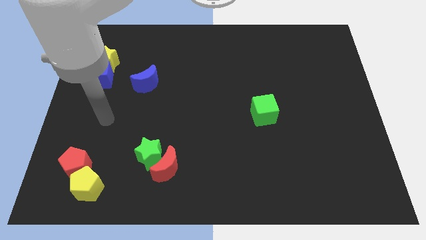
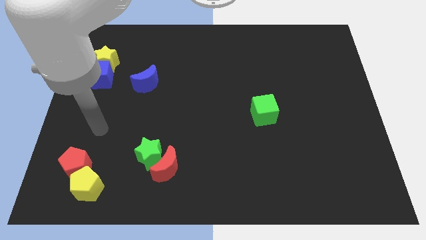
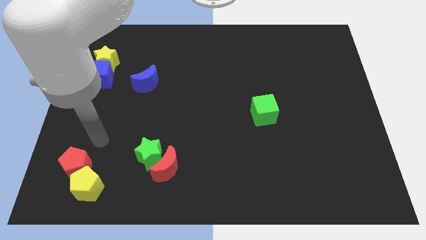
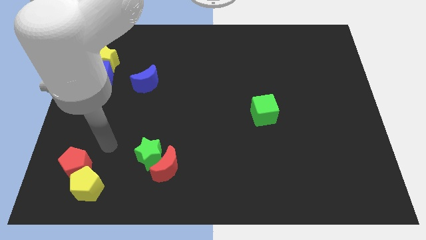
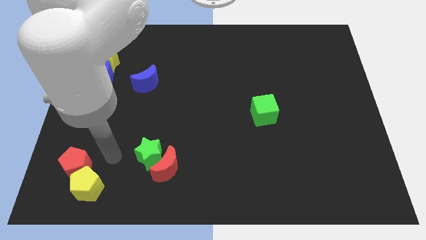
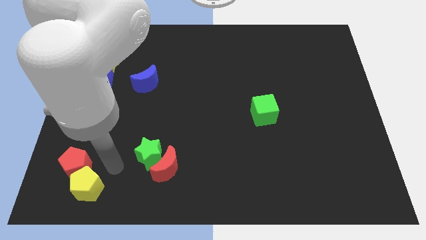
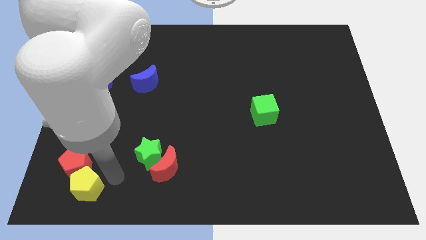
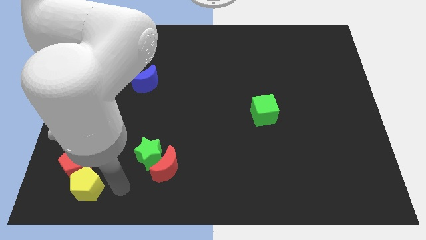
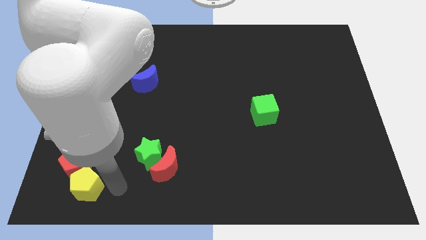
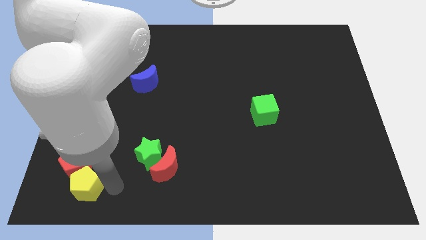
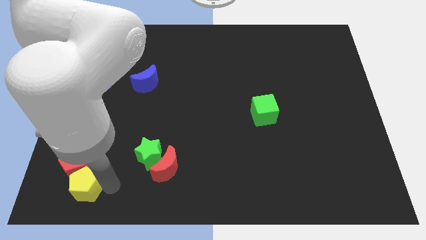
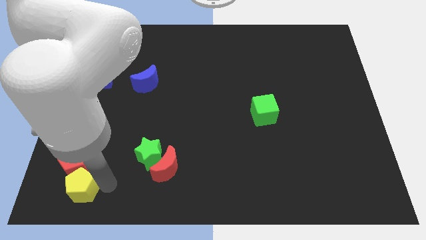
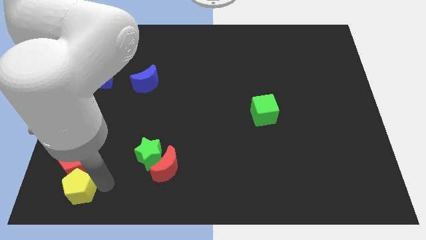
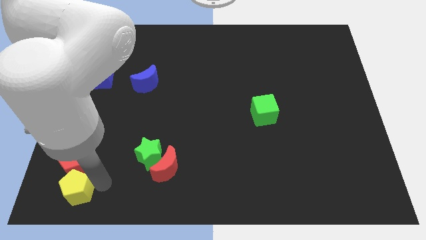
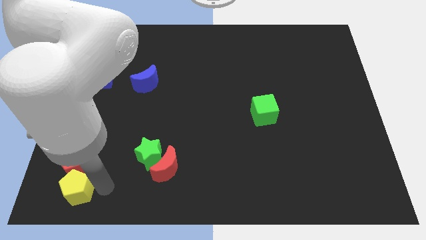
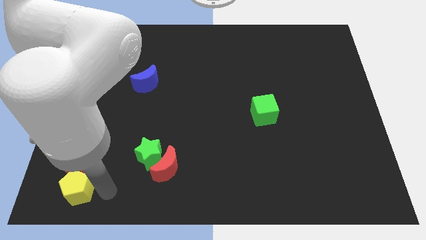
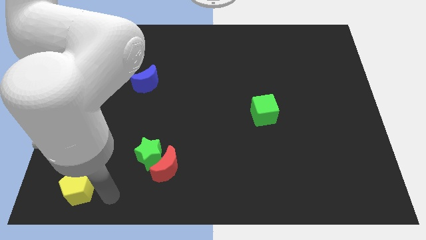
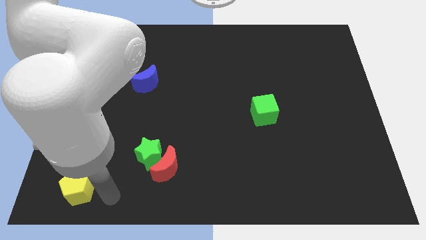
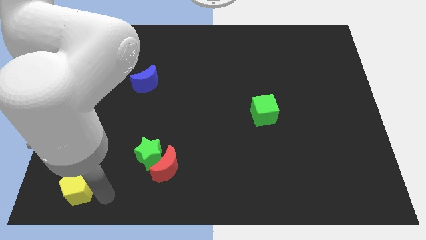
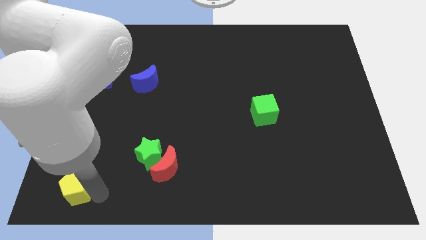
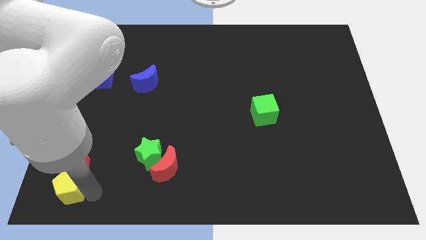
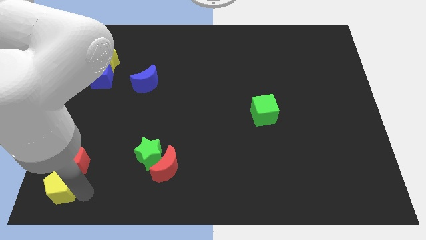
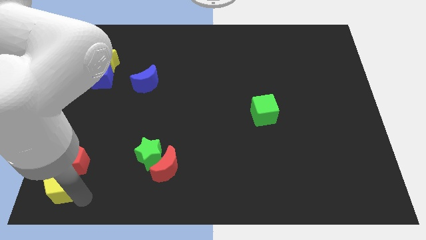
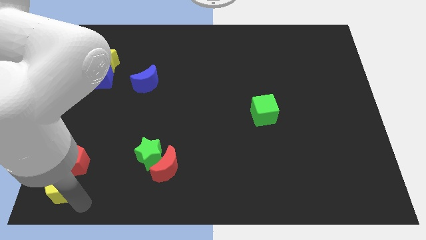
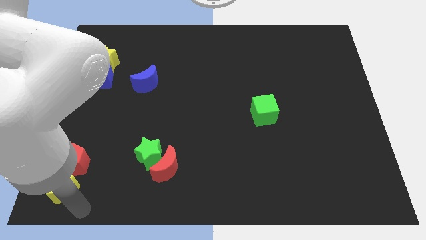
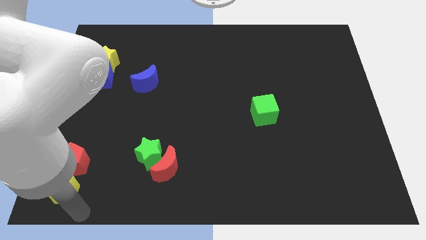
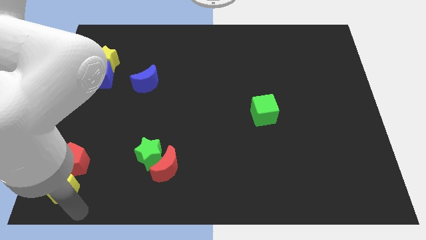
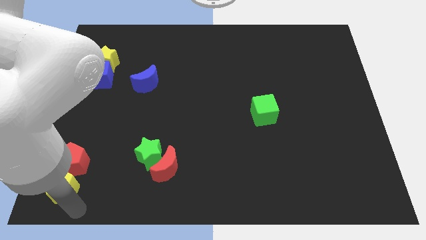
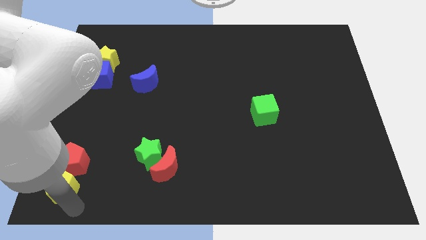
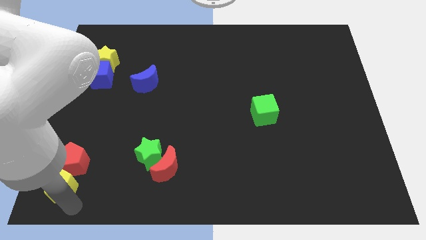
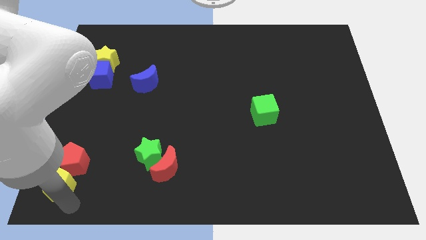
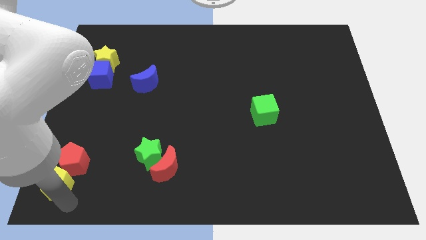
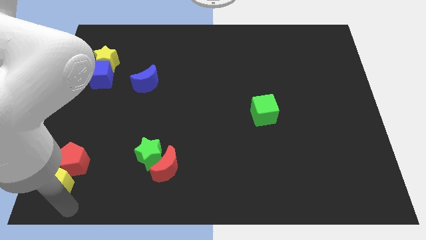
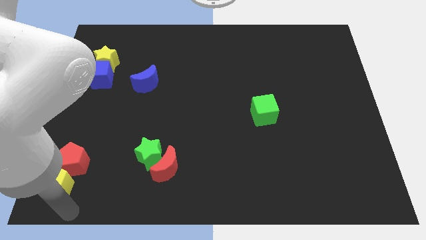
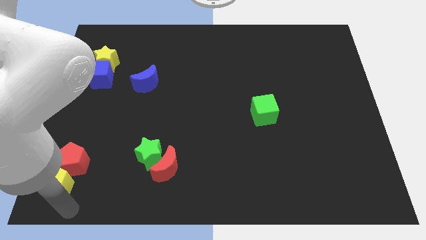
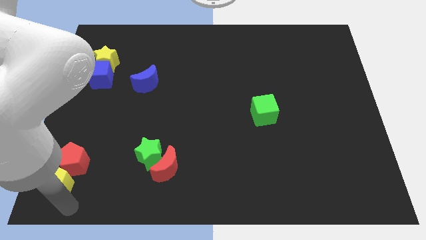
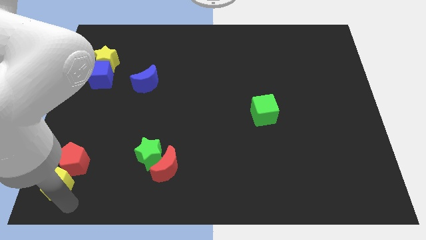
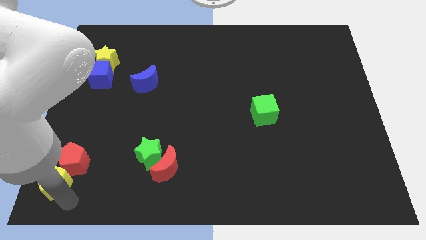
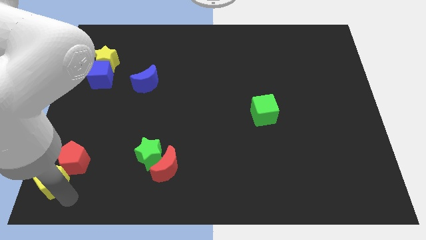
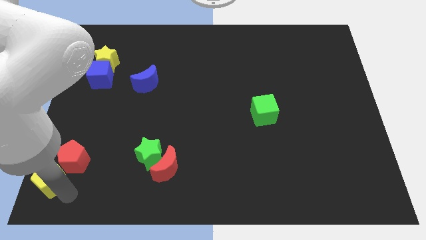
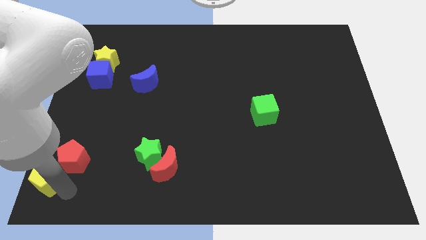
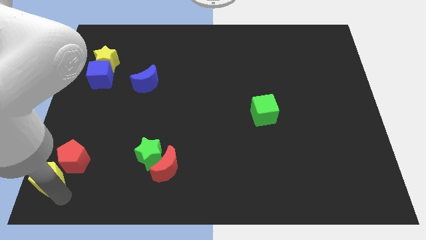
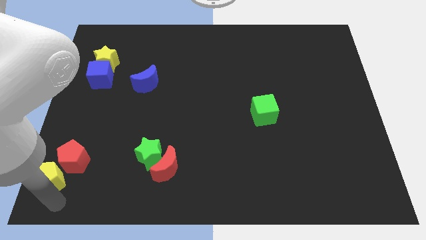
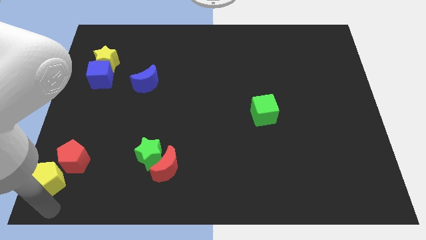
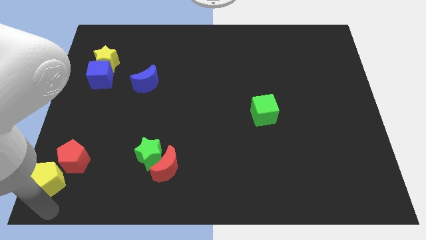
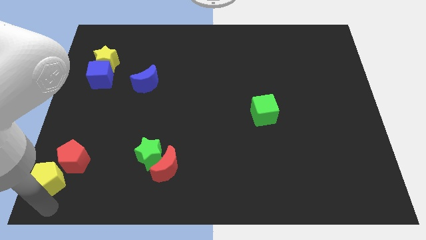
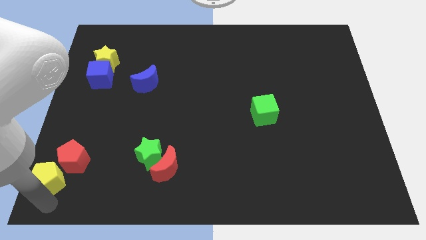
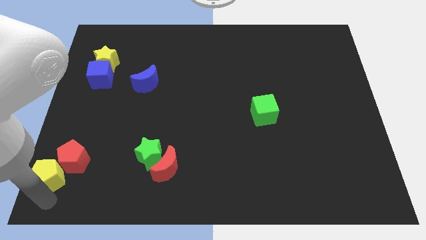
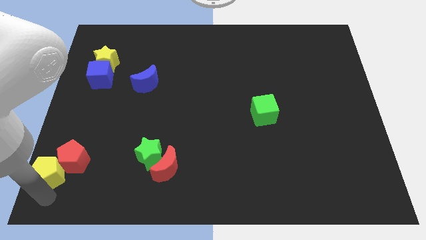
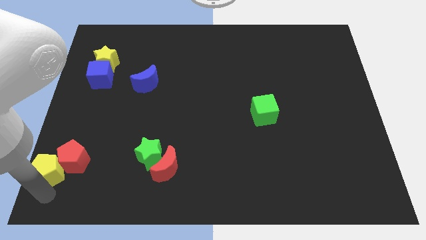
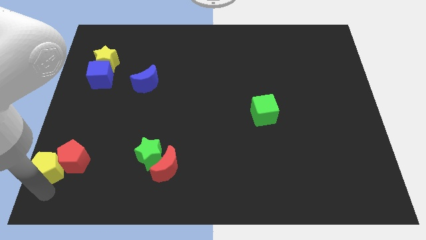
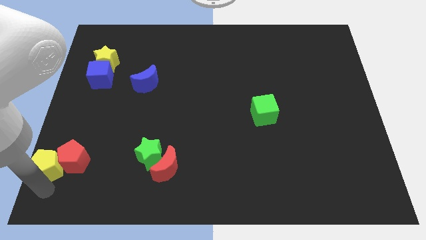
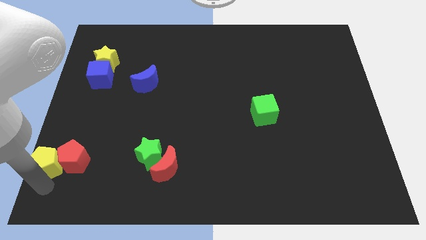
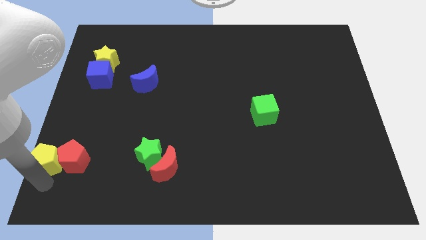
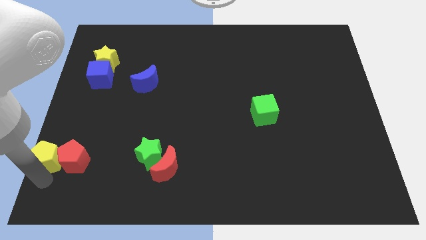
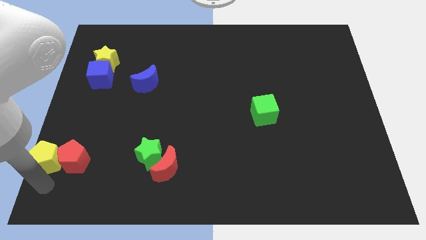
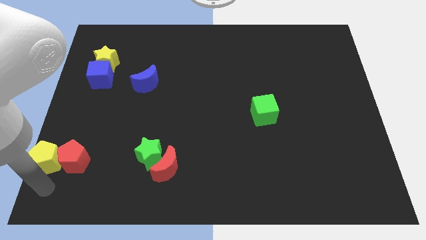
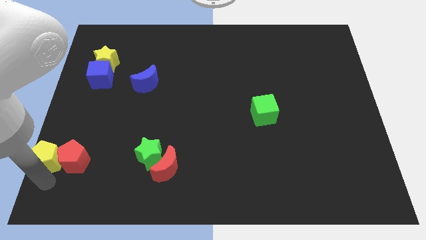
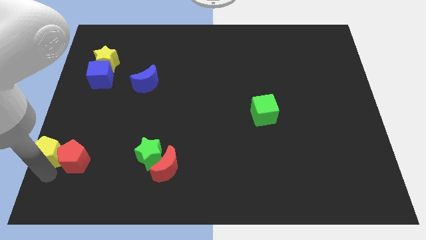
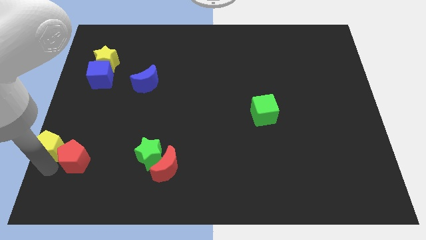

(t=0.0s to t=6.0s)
push the yellow pentagon to the left side of the board
